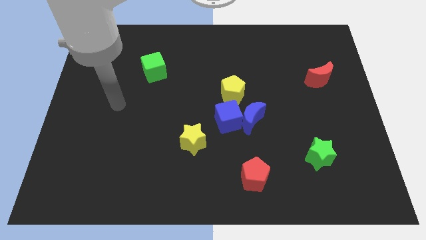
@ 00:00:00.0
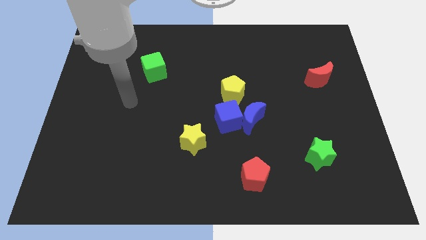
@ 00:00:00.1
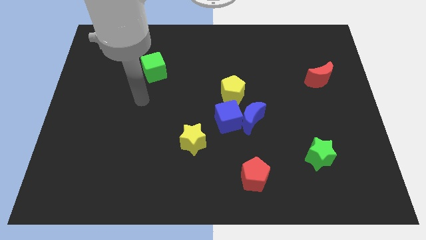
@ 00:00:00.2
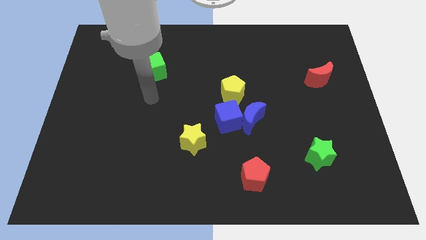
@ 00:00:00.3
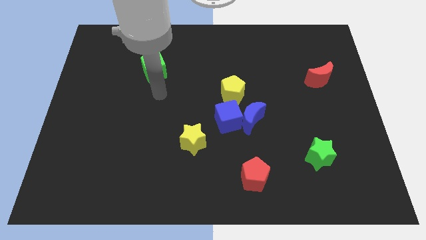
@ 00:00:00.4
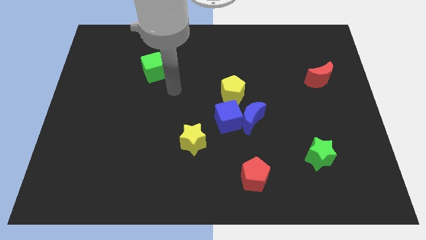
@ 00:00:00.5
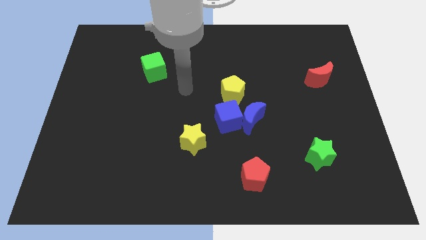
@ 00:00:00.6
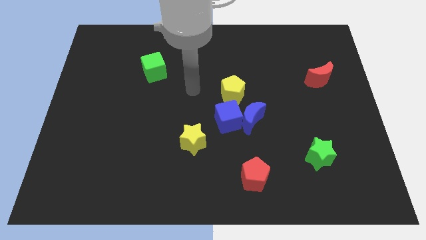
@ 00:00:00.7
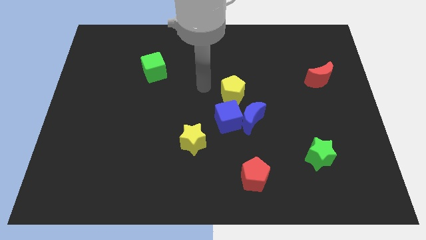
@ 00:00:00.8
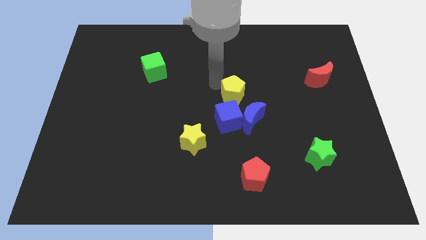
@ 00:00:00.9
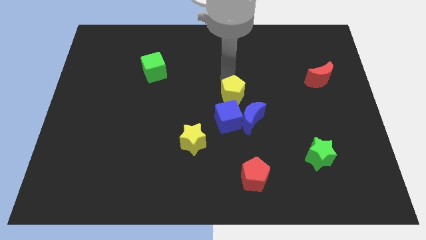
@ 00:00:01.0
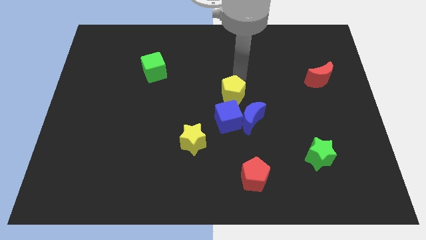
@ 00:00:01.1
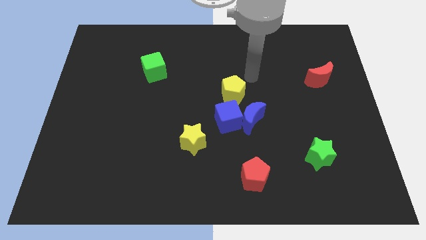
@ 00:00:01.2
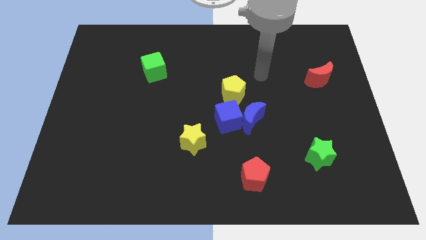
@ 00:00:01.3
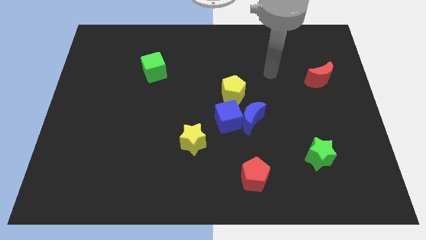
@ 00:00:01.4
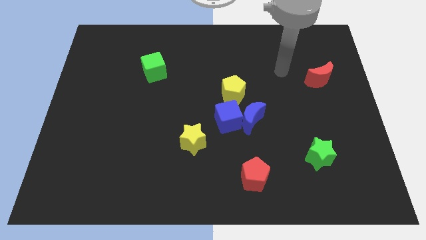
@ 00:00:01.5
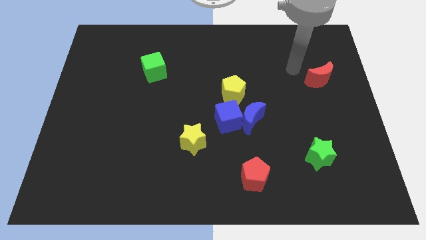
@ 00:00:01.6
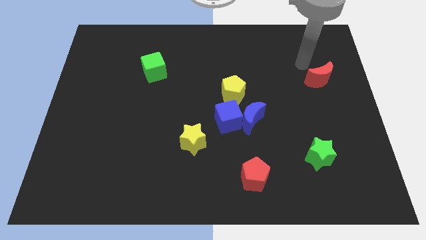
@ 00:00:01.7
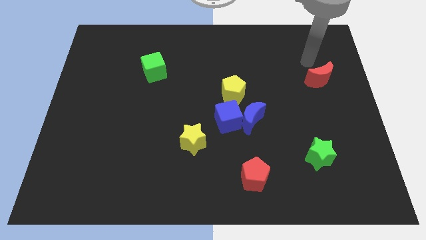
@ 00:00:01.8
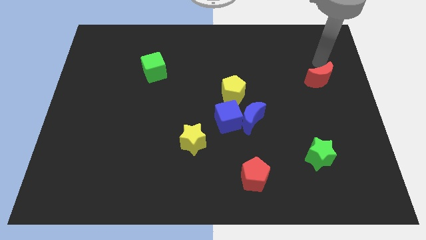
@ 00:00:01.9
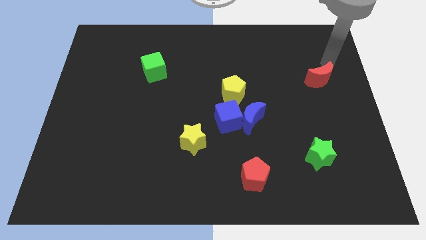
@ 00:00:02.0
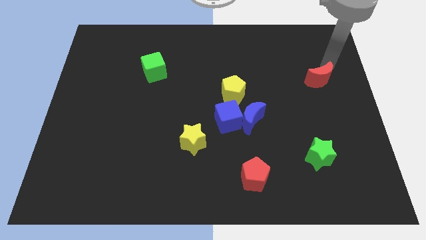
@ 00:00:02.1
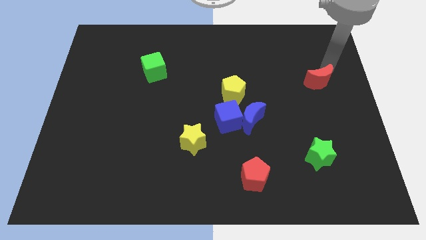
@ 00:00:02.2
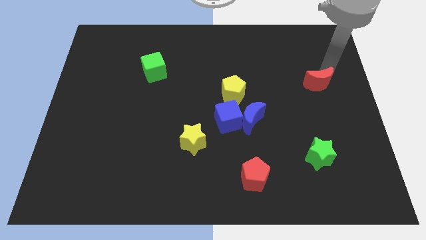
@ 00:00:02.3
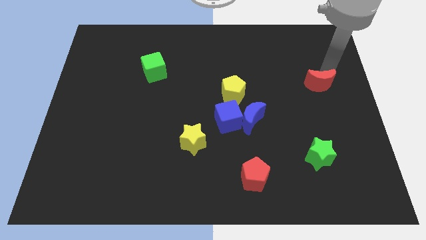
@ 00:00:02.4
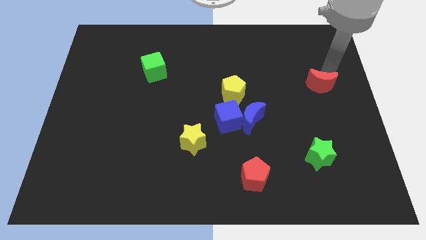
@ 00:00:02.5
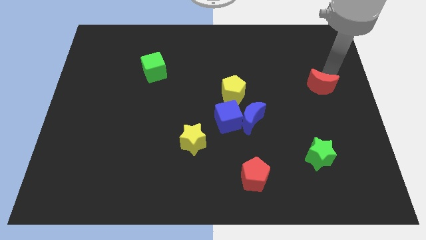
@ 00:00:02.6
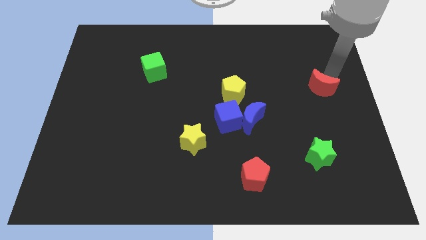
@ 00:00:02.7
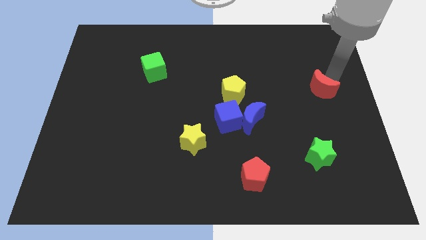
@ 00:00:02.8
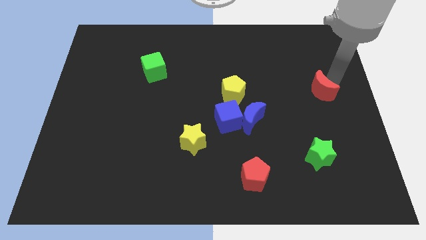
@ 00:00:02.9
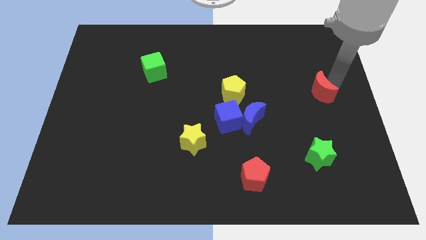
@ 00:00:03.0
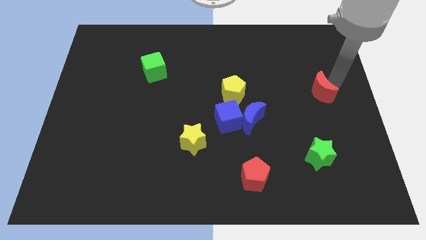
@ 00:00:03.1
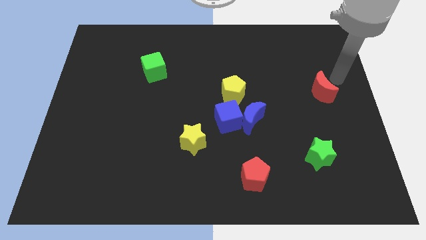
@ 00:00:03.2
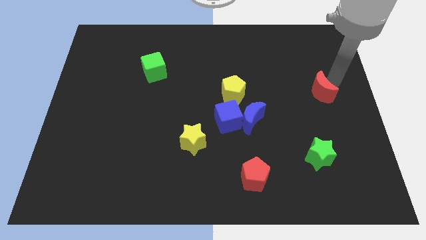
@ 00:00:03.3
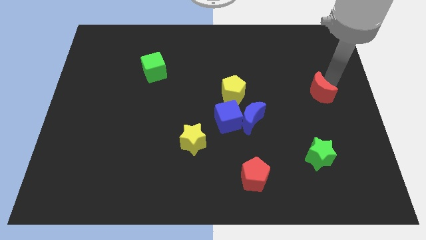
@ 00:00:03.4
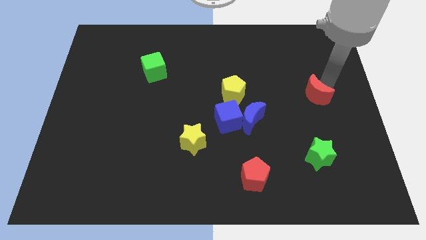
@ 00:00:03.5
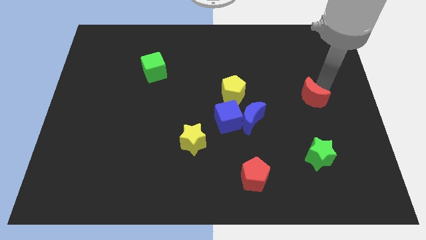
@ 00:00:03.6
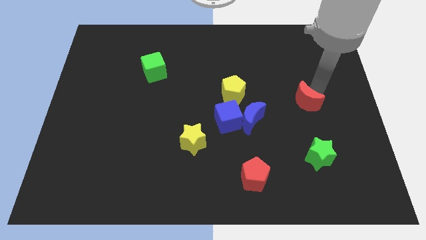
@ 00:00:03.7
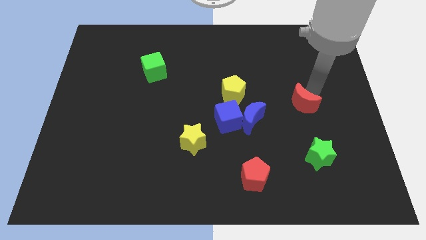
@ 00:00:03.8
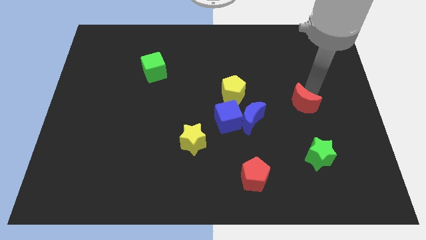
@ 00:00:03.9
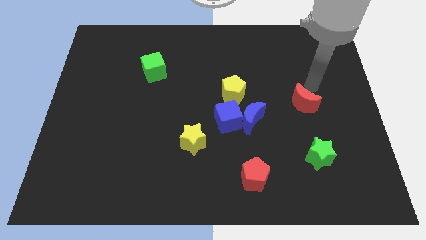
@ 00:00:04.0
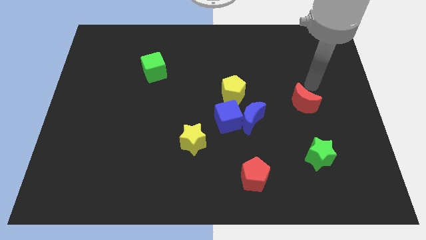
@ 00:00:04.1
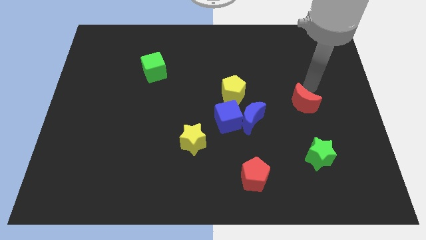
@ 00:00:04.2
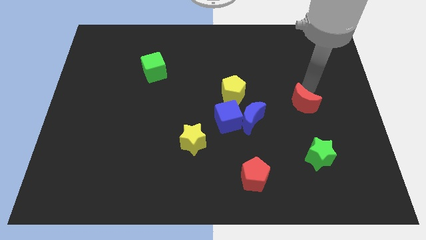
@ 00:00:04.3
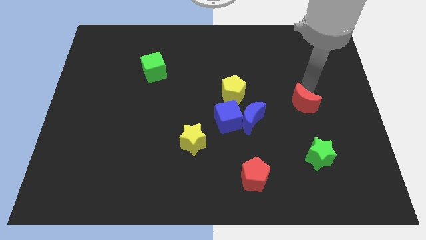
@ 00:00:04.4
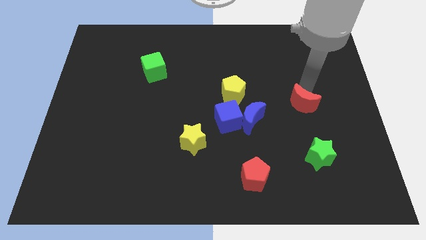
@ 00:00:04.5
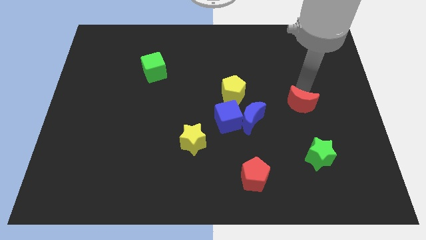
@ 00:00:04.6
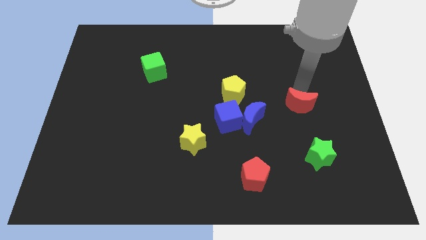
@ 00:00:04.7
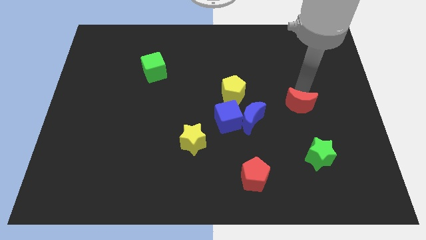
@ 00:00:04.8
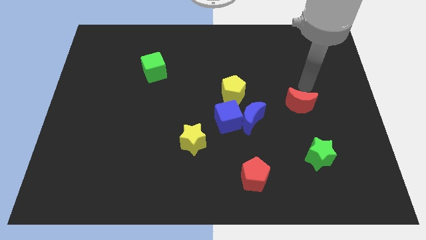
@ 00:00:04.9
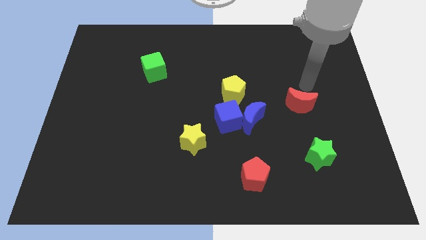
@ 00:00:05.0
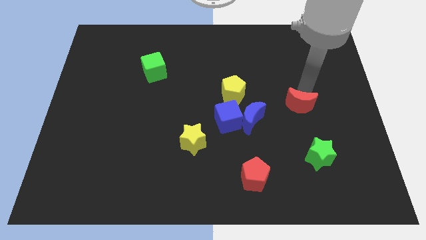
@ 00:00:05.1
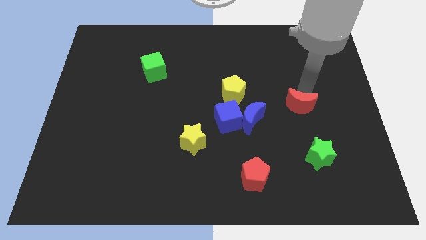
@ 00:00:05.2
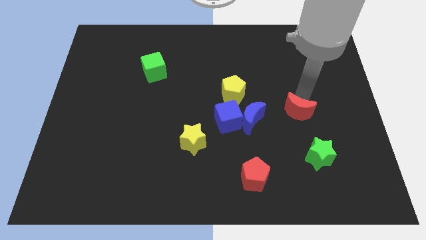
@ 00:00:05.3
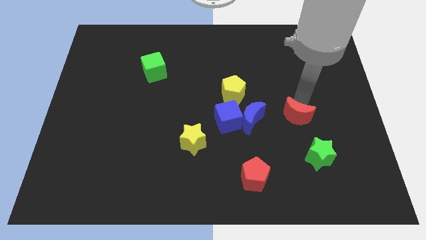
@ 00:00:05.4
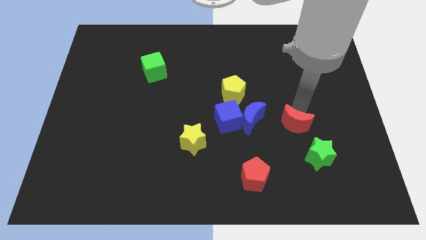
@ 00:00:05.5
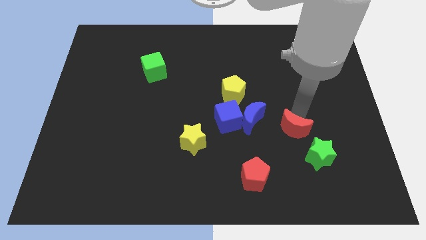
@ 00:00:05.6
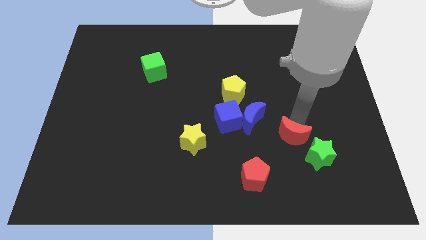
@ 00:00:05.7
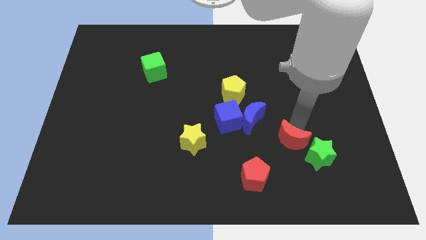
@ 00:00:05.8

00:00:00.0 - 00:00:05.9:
move the red moon just left of the green star

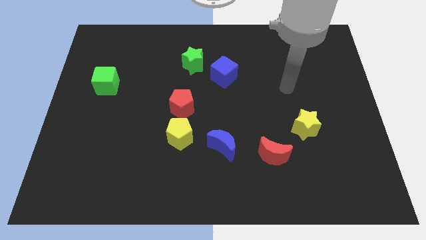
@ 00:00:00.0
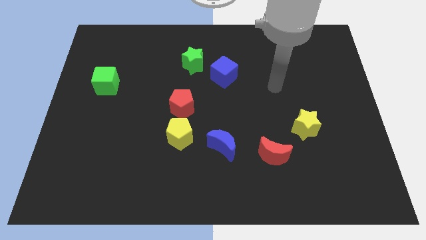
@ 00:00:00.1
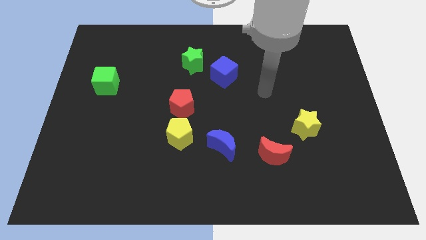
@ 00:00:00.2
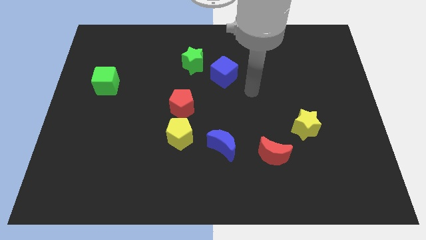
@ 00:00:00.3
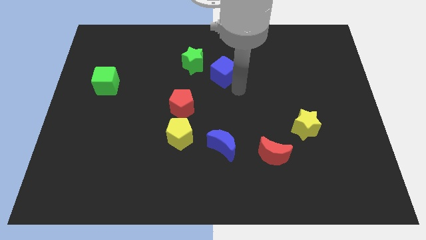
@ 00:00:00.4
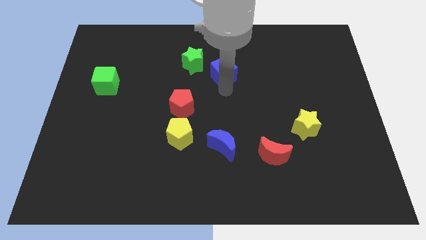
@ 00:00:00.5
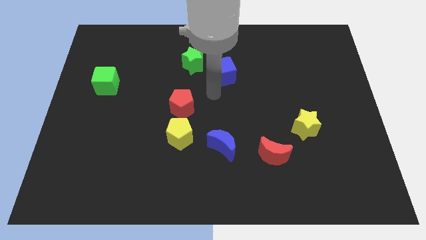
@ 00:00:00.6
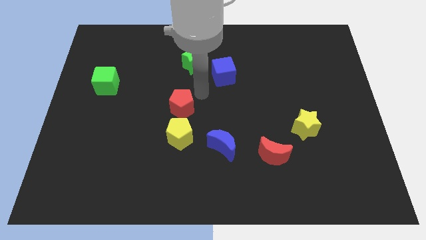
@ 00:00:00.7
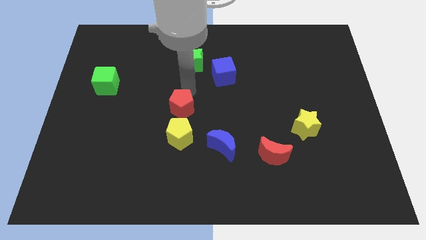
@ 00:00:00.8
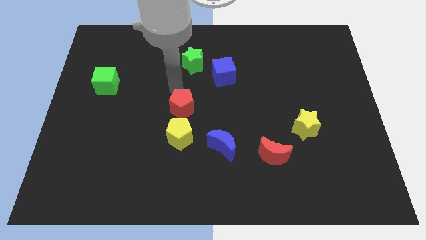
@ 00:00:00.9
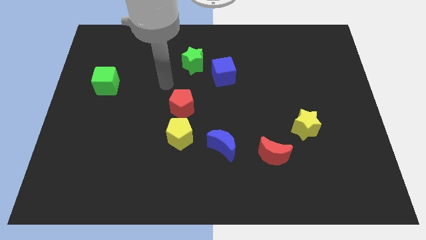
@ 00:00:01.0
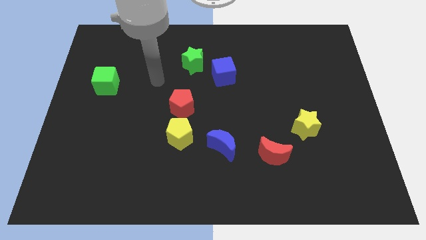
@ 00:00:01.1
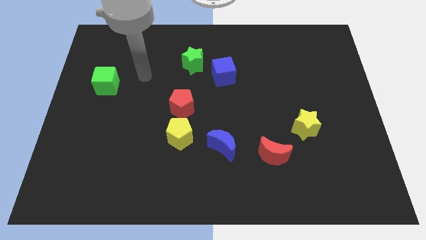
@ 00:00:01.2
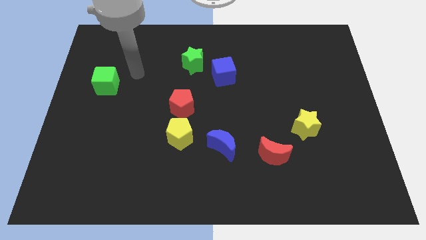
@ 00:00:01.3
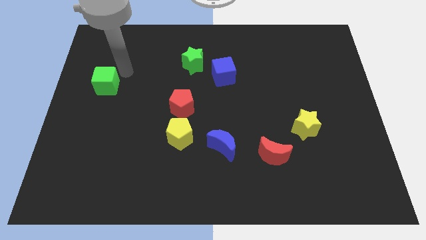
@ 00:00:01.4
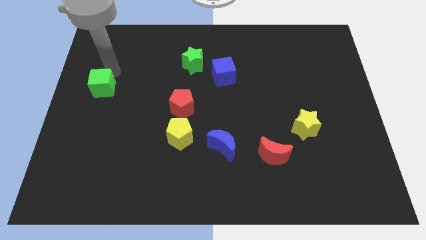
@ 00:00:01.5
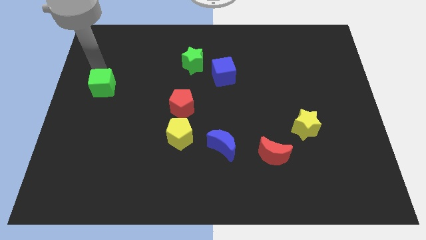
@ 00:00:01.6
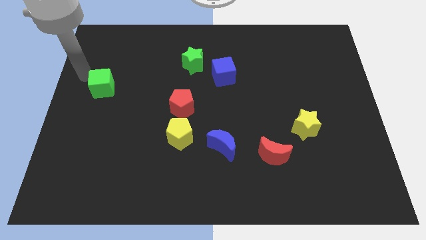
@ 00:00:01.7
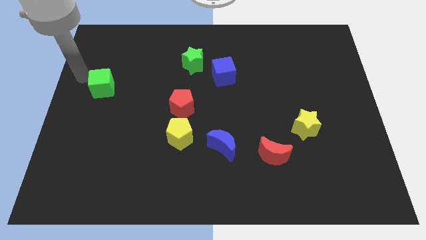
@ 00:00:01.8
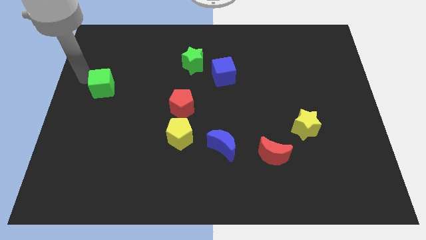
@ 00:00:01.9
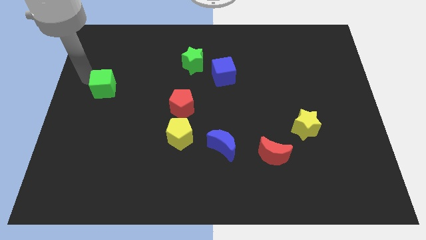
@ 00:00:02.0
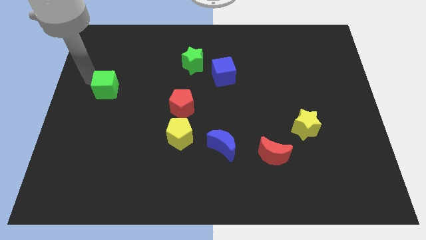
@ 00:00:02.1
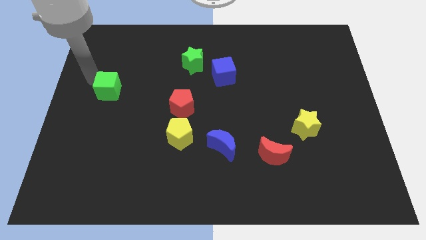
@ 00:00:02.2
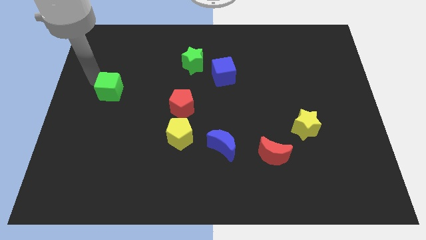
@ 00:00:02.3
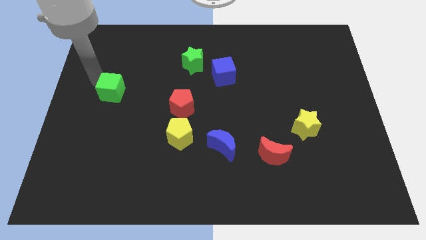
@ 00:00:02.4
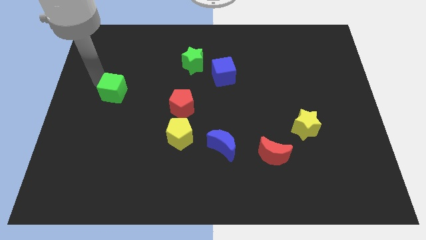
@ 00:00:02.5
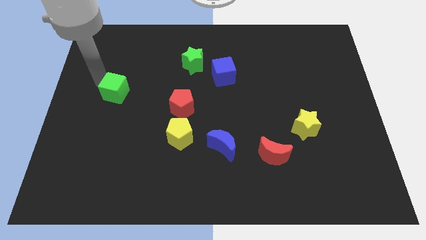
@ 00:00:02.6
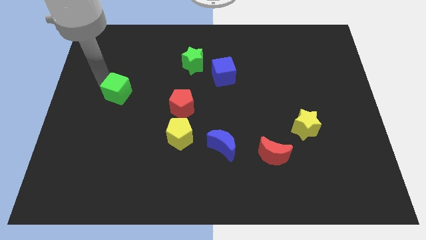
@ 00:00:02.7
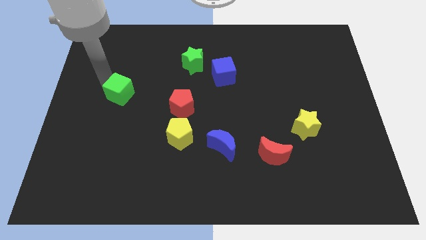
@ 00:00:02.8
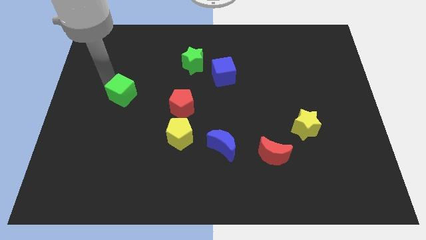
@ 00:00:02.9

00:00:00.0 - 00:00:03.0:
put the green cube to the left of the red pentagon
